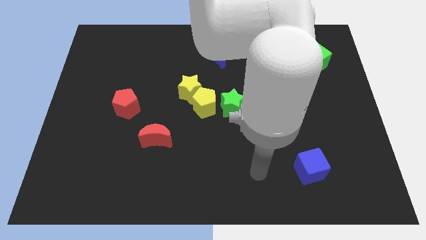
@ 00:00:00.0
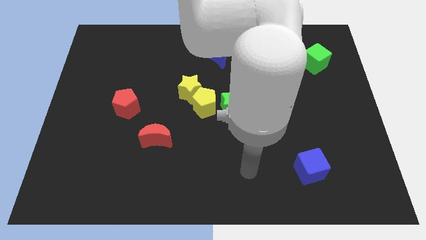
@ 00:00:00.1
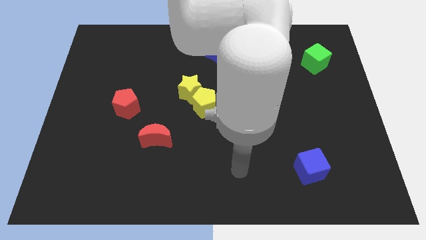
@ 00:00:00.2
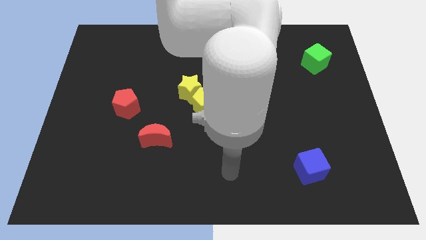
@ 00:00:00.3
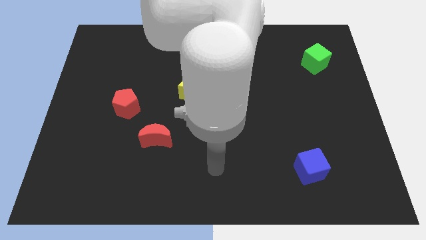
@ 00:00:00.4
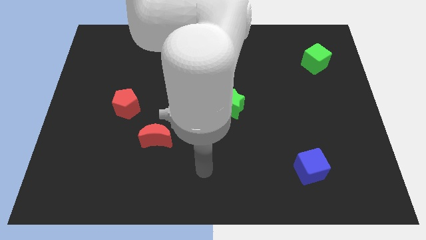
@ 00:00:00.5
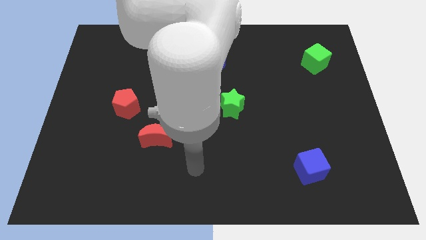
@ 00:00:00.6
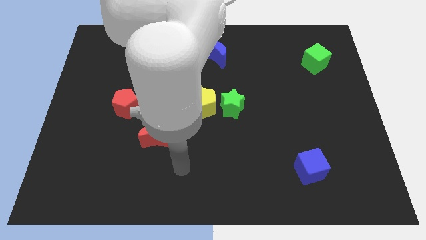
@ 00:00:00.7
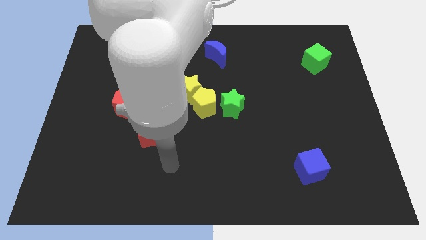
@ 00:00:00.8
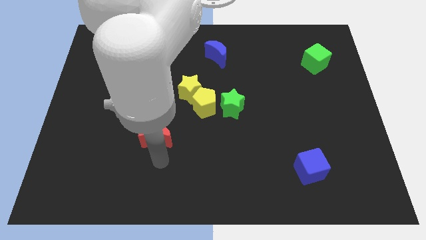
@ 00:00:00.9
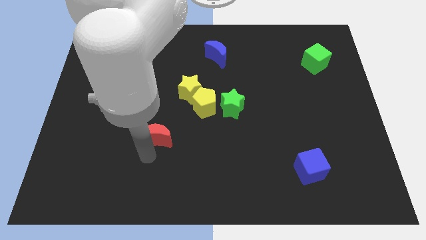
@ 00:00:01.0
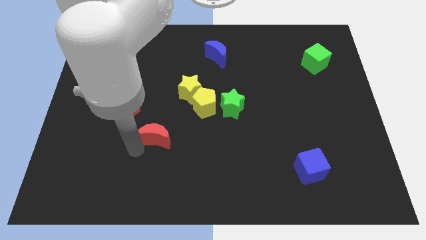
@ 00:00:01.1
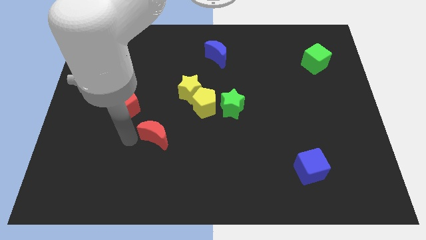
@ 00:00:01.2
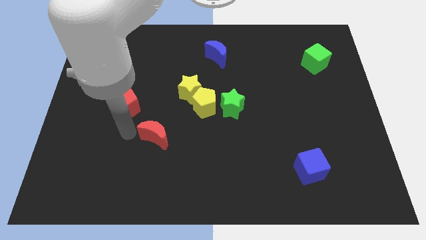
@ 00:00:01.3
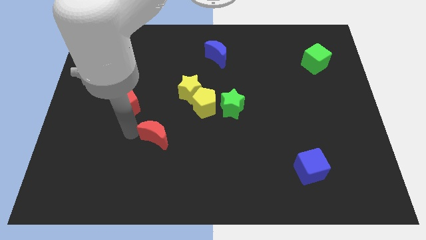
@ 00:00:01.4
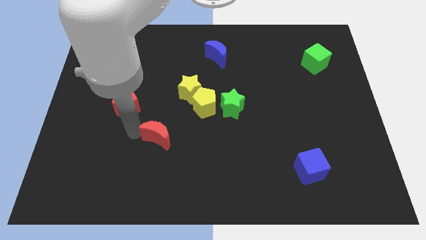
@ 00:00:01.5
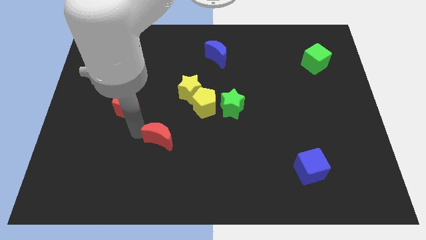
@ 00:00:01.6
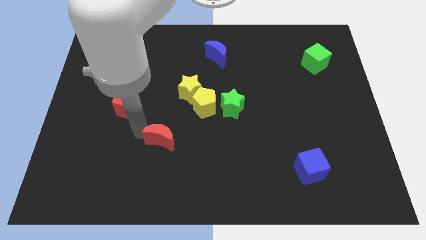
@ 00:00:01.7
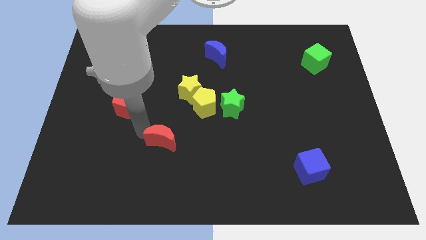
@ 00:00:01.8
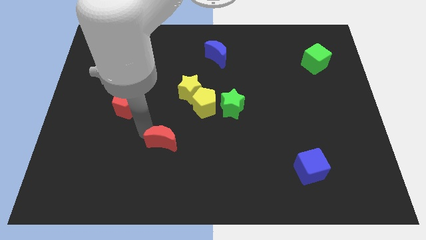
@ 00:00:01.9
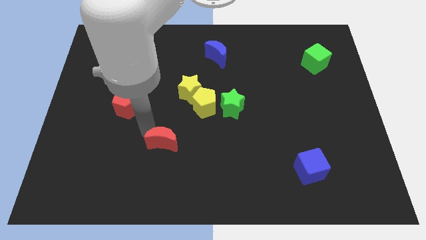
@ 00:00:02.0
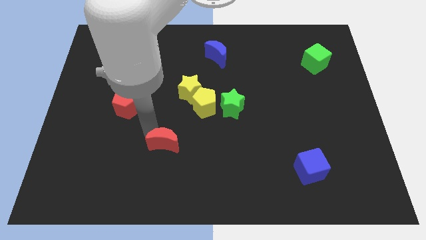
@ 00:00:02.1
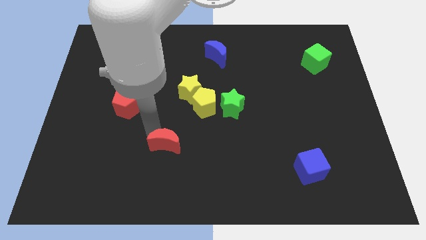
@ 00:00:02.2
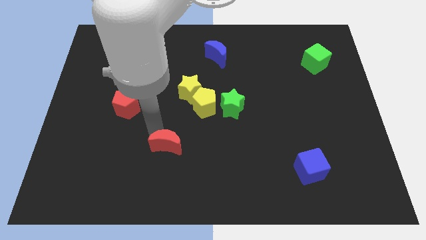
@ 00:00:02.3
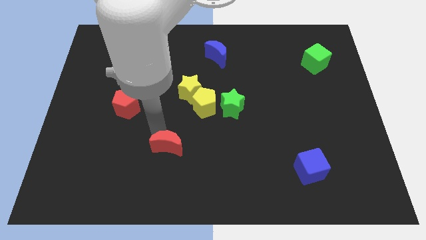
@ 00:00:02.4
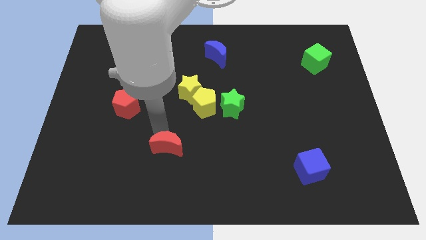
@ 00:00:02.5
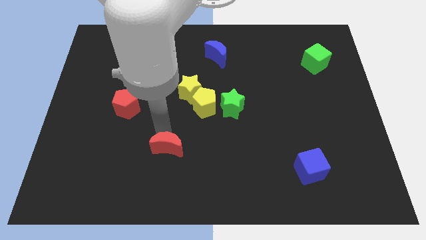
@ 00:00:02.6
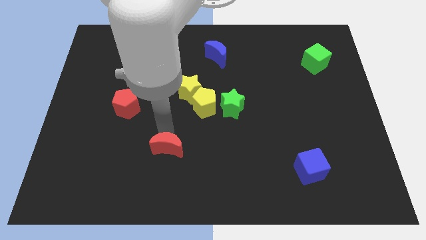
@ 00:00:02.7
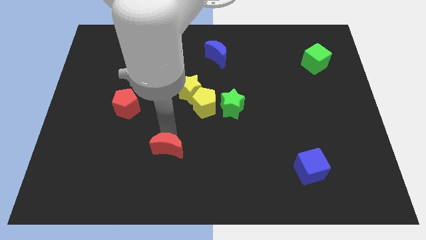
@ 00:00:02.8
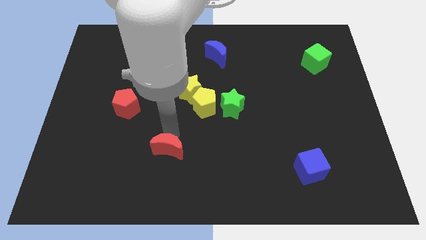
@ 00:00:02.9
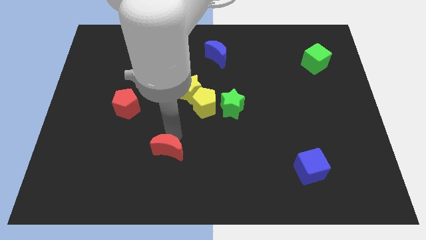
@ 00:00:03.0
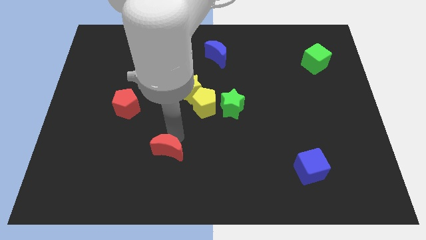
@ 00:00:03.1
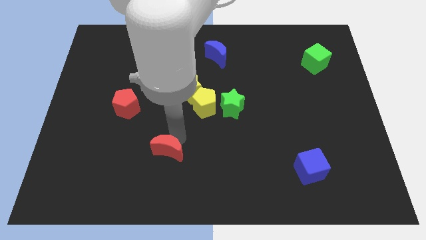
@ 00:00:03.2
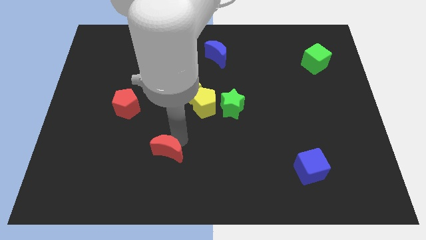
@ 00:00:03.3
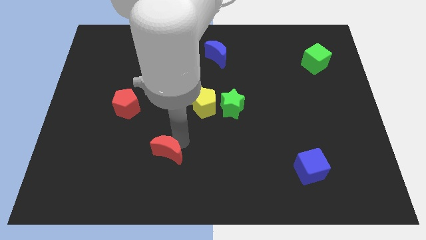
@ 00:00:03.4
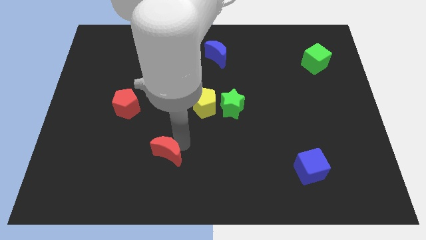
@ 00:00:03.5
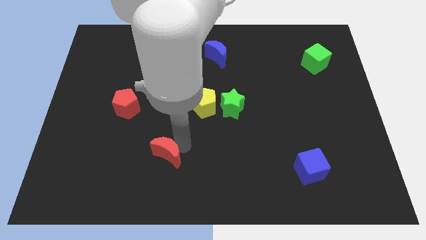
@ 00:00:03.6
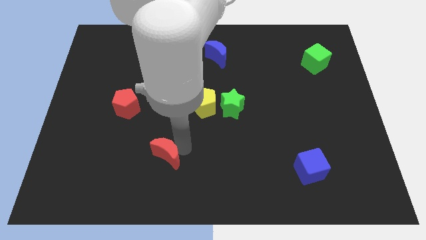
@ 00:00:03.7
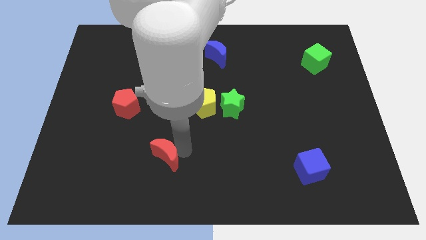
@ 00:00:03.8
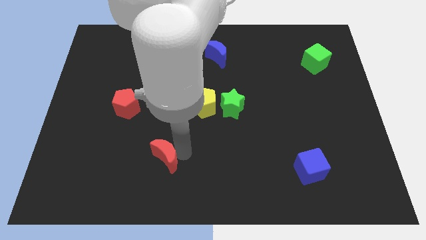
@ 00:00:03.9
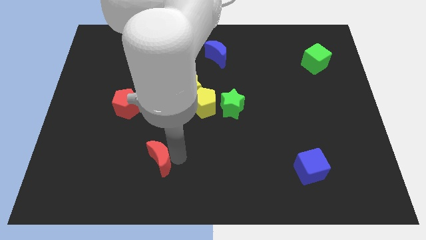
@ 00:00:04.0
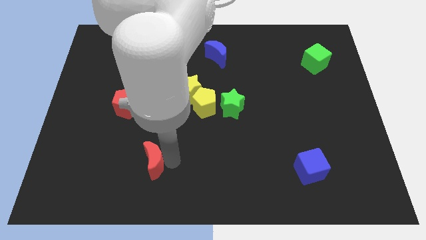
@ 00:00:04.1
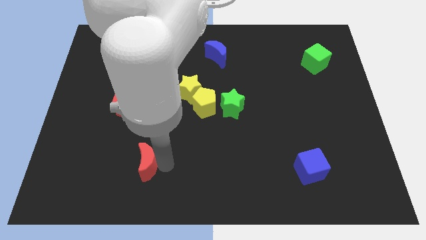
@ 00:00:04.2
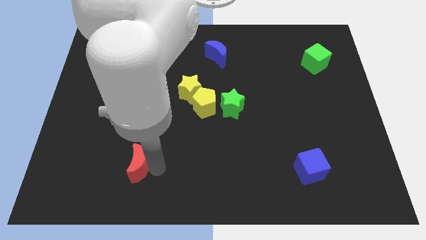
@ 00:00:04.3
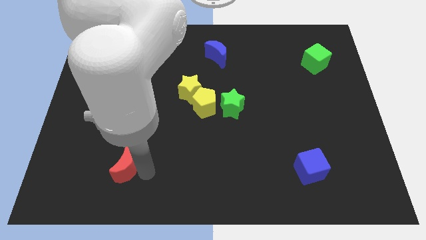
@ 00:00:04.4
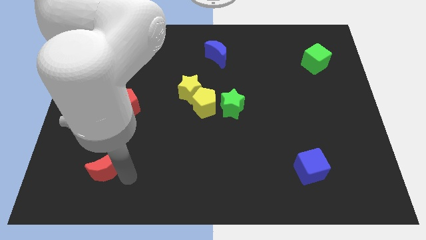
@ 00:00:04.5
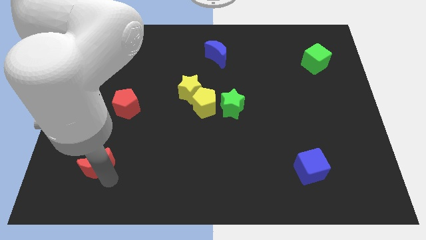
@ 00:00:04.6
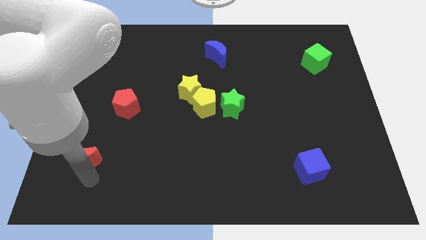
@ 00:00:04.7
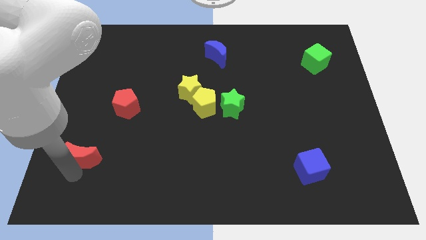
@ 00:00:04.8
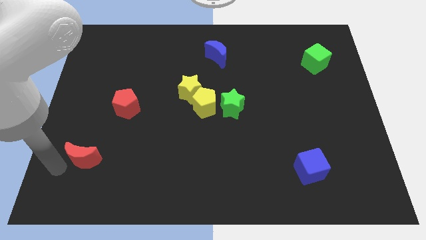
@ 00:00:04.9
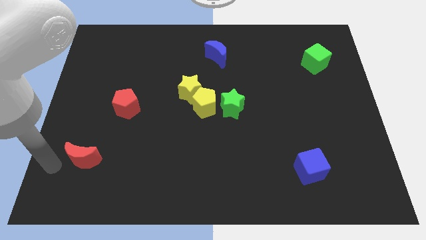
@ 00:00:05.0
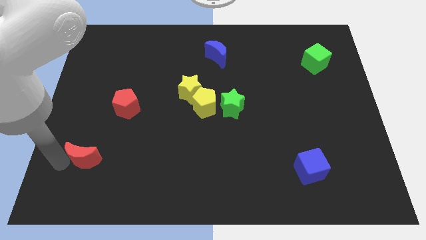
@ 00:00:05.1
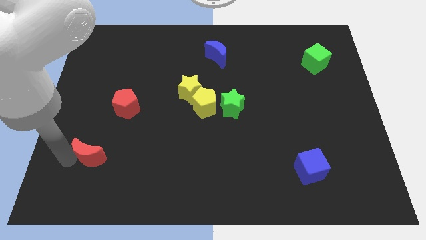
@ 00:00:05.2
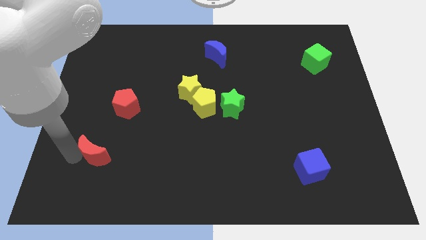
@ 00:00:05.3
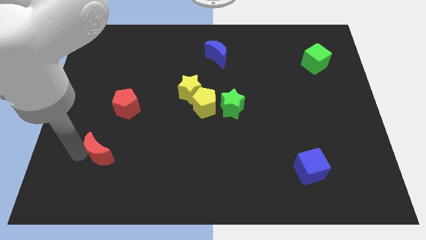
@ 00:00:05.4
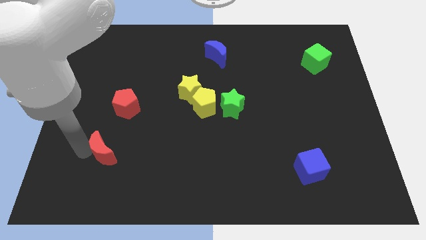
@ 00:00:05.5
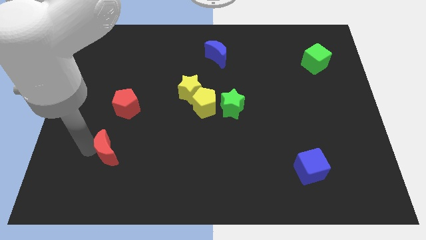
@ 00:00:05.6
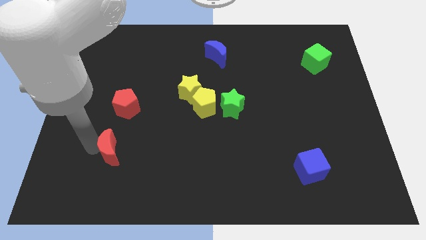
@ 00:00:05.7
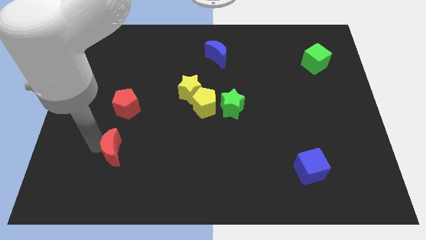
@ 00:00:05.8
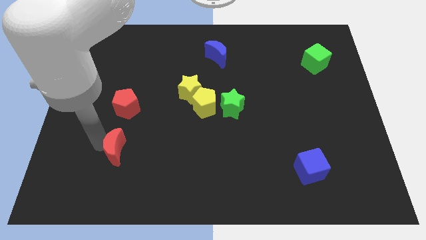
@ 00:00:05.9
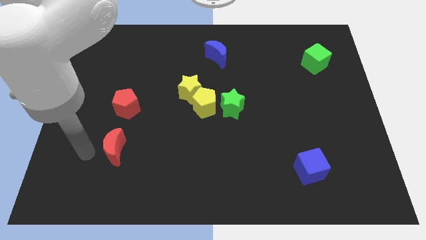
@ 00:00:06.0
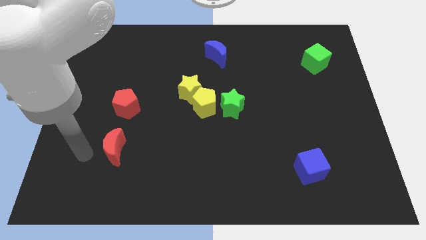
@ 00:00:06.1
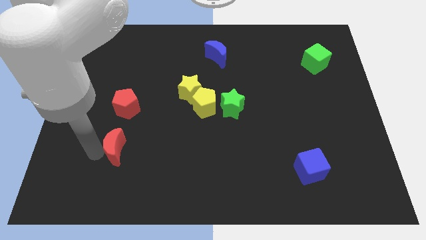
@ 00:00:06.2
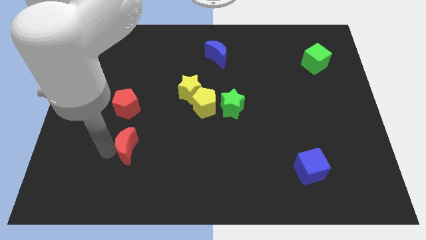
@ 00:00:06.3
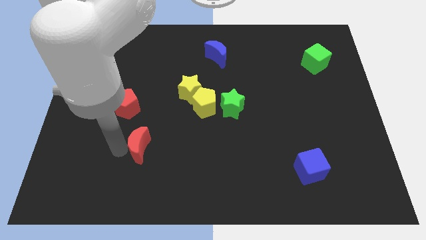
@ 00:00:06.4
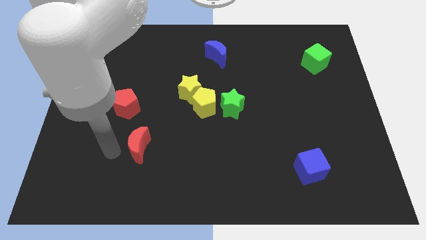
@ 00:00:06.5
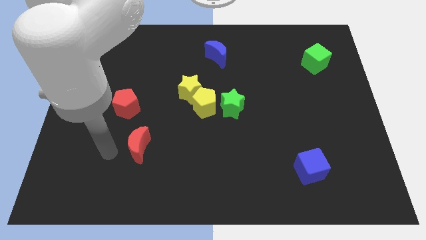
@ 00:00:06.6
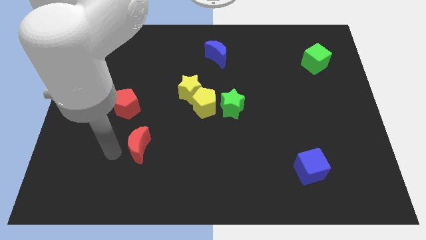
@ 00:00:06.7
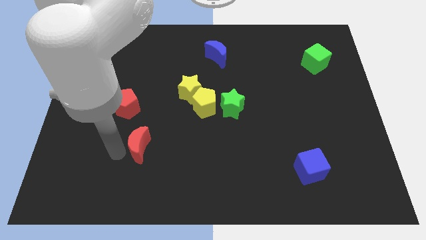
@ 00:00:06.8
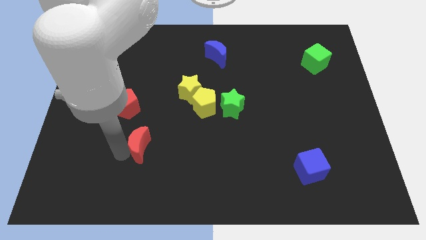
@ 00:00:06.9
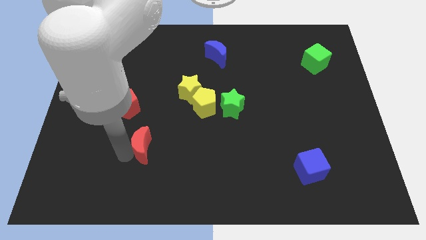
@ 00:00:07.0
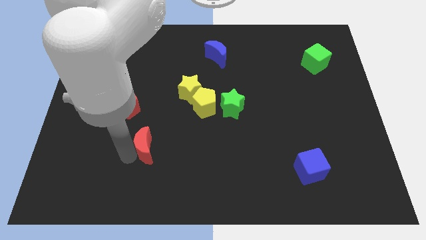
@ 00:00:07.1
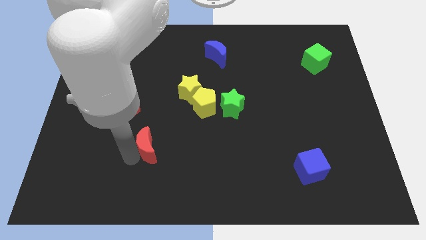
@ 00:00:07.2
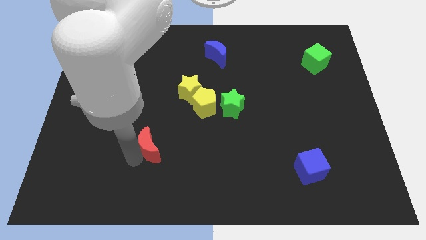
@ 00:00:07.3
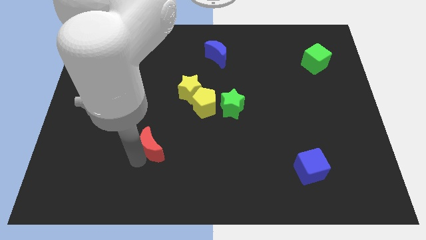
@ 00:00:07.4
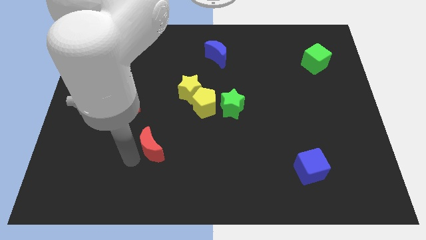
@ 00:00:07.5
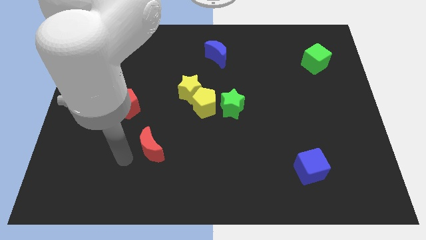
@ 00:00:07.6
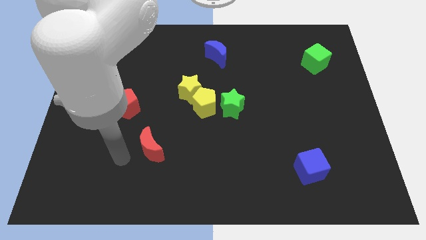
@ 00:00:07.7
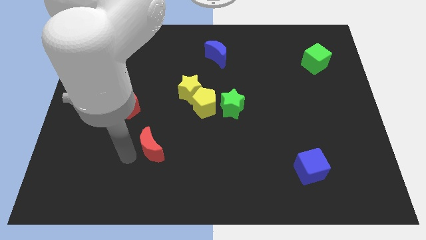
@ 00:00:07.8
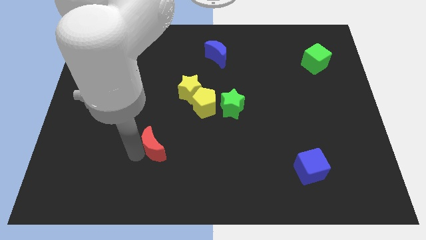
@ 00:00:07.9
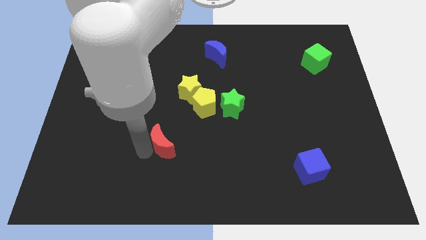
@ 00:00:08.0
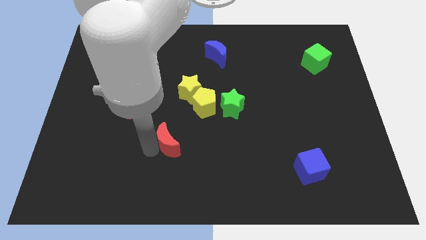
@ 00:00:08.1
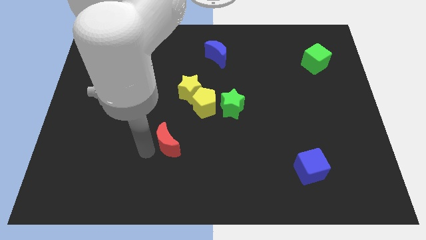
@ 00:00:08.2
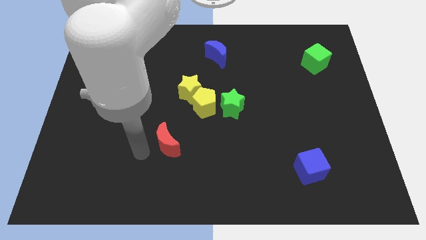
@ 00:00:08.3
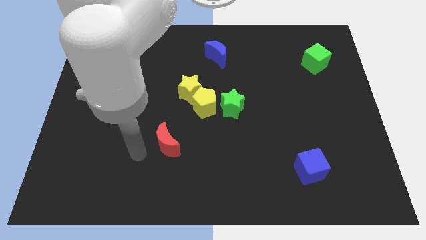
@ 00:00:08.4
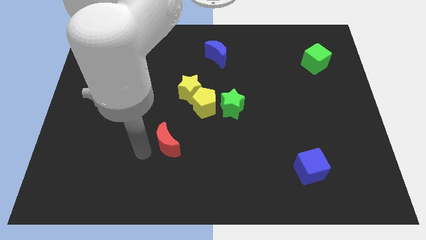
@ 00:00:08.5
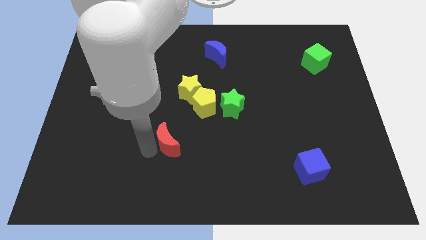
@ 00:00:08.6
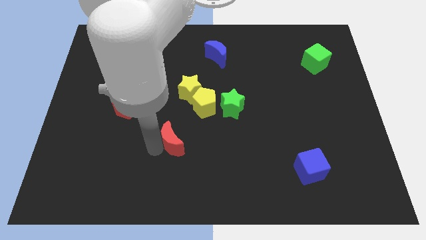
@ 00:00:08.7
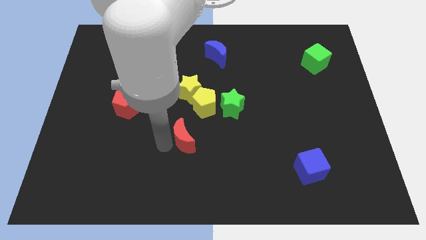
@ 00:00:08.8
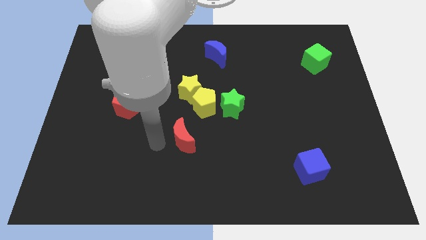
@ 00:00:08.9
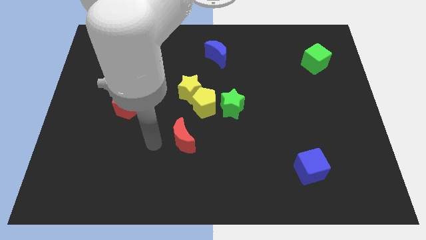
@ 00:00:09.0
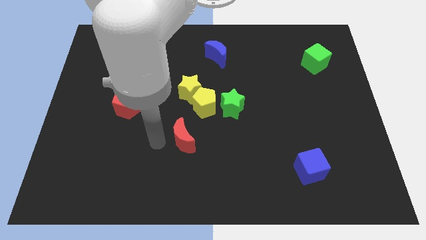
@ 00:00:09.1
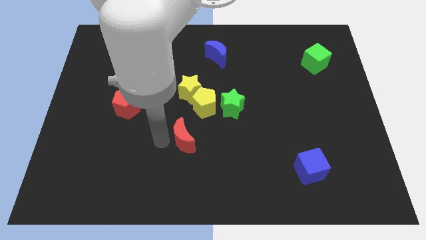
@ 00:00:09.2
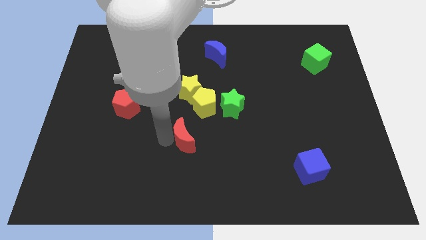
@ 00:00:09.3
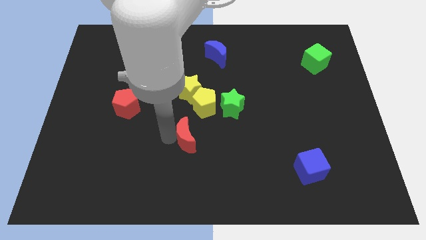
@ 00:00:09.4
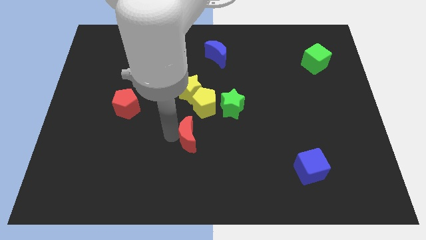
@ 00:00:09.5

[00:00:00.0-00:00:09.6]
slightly slide the red moon right
